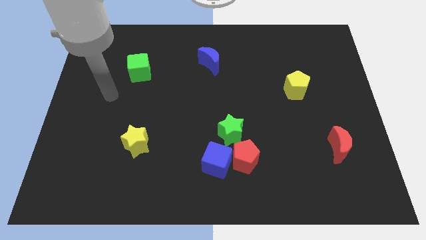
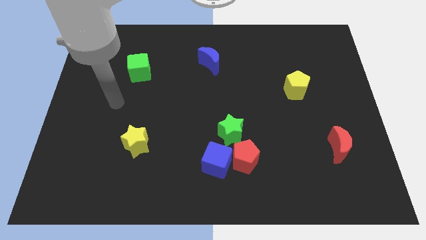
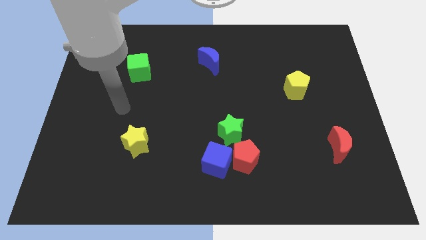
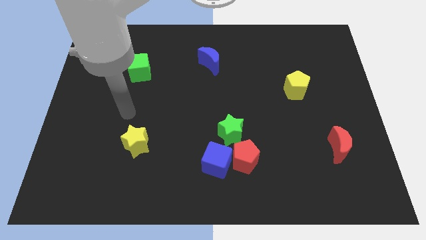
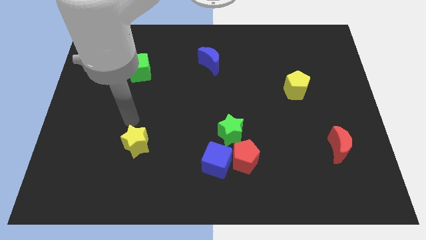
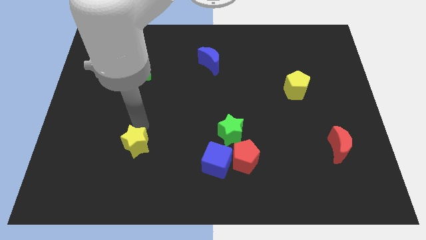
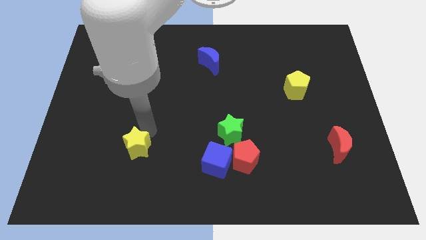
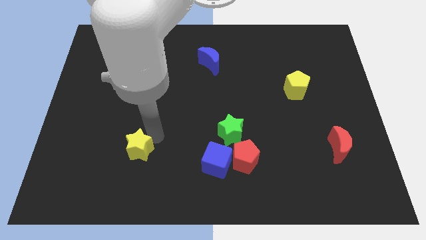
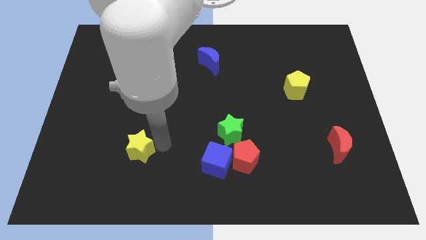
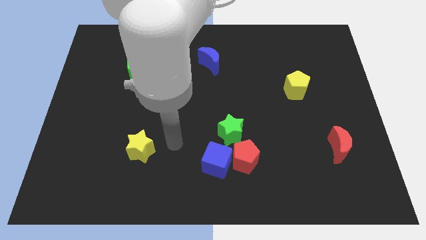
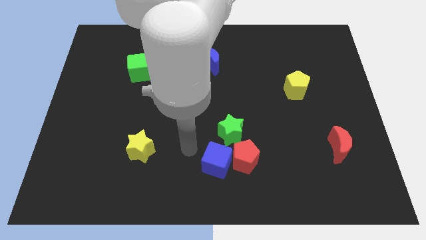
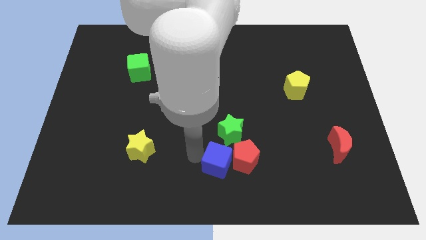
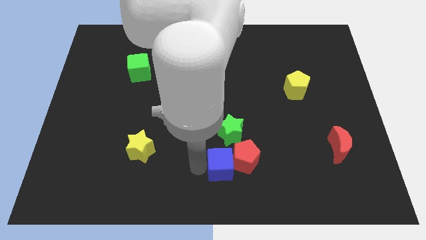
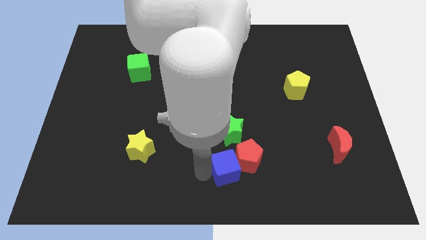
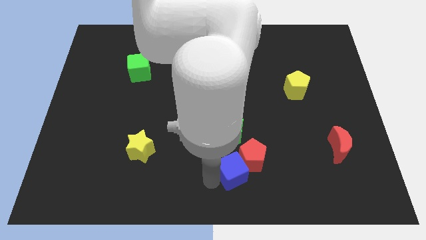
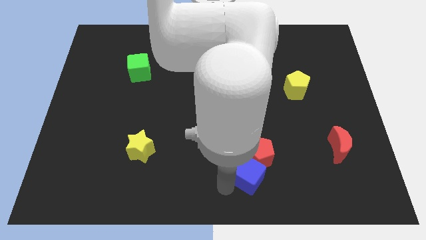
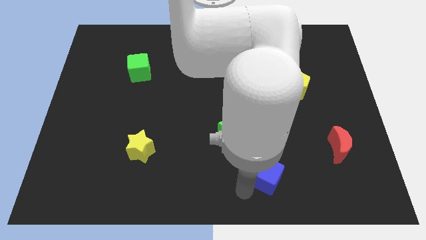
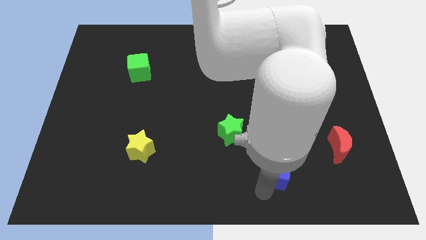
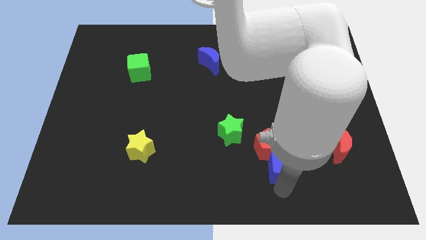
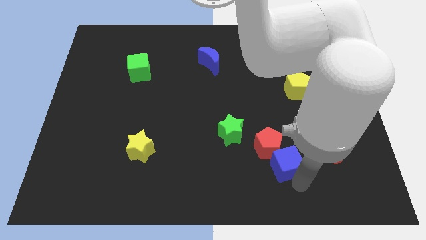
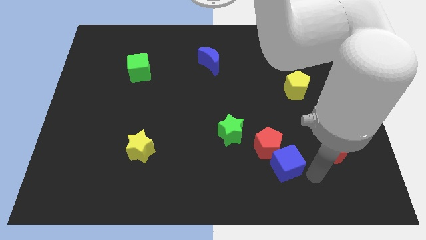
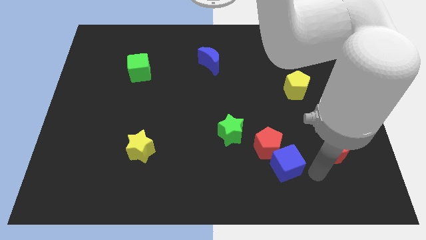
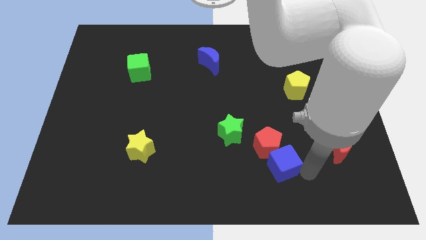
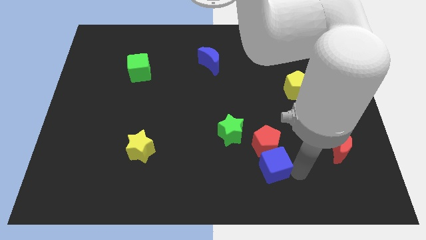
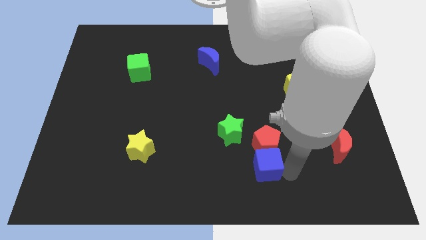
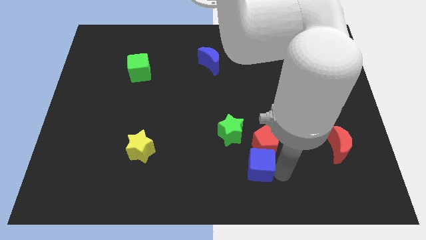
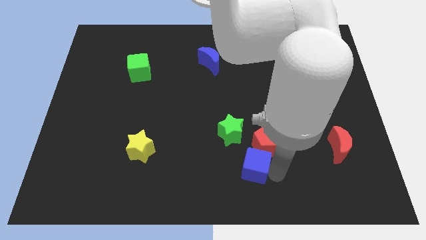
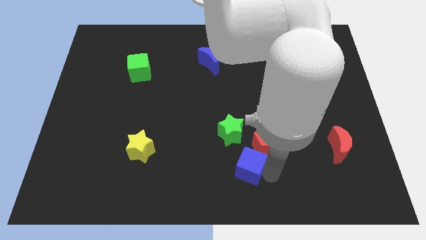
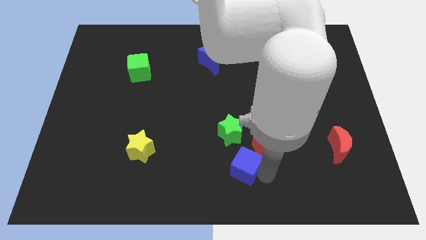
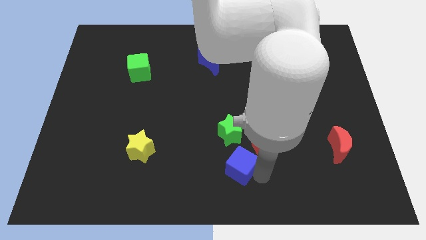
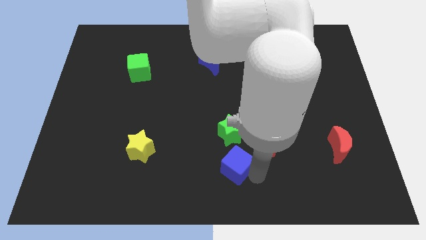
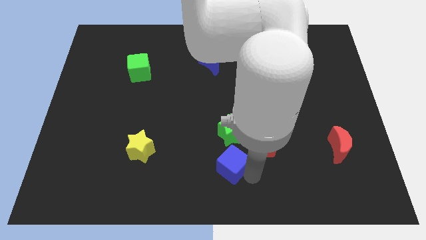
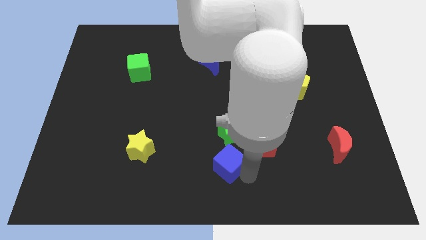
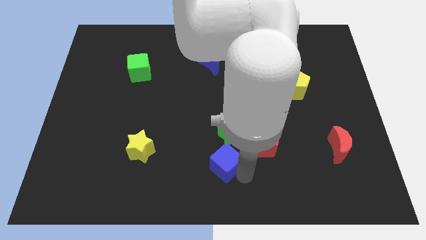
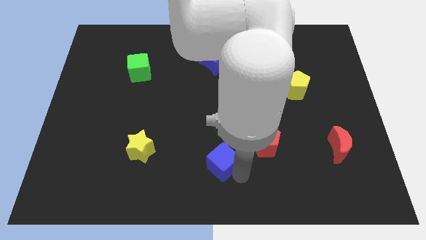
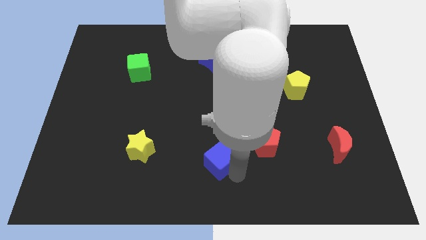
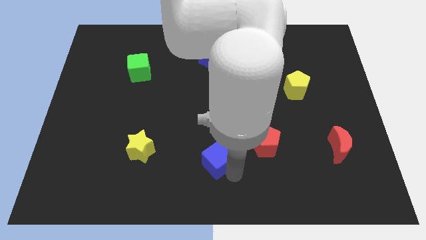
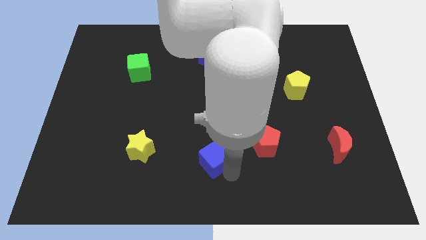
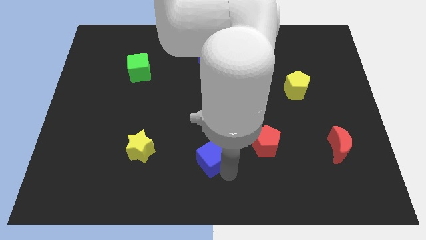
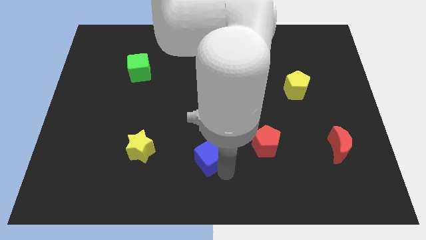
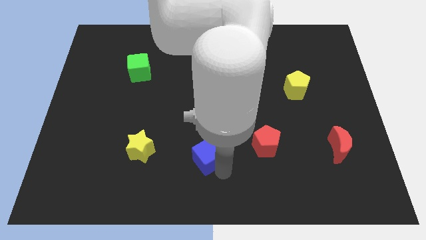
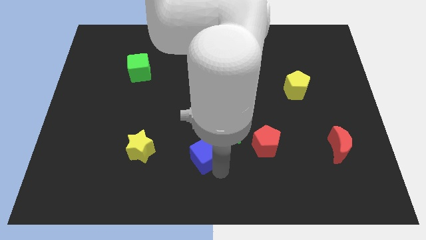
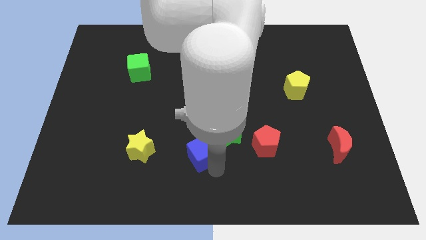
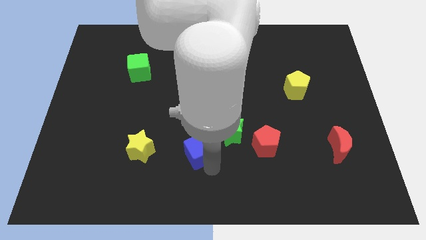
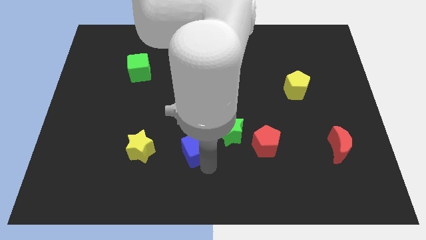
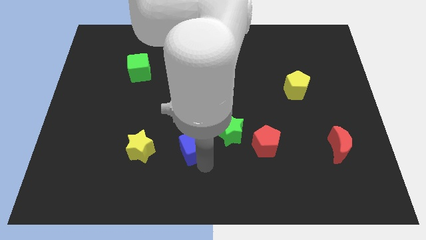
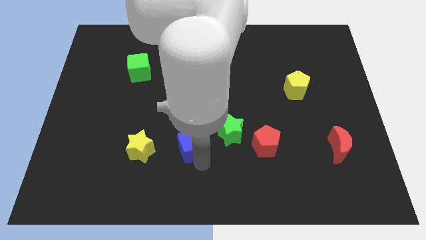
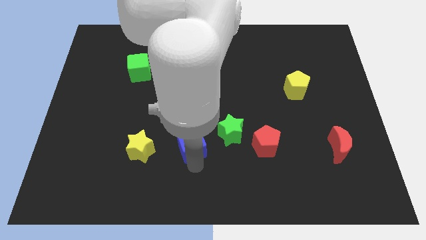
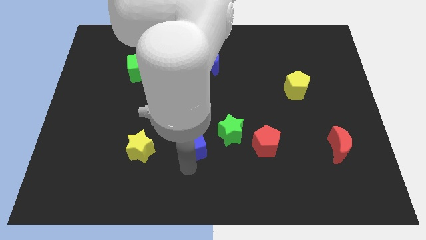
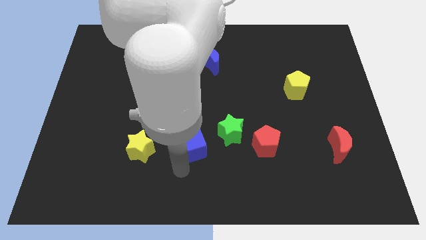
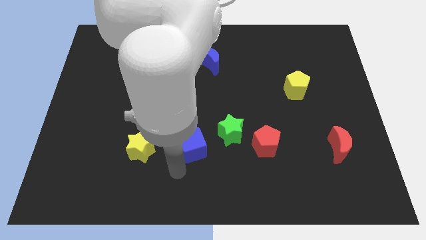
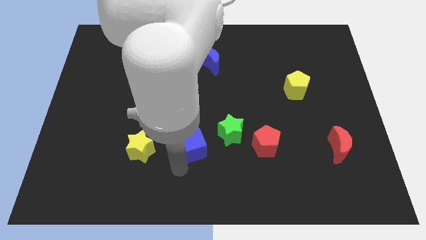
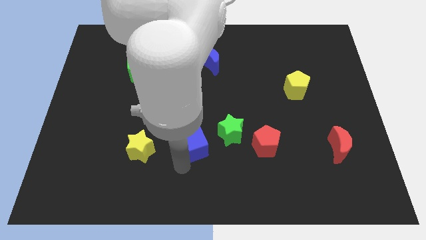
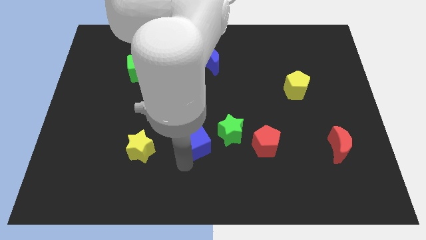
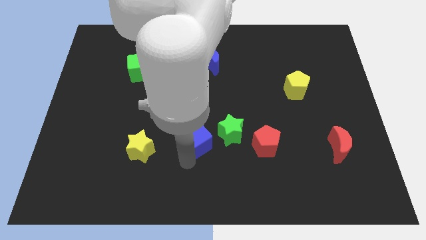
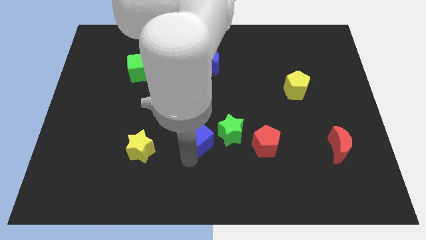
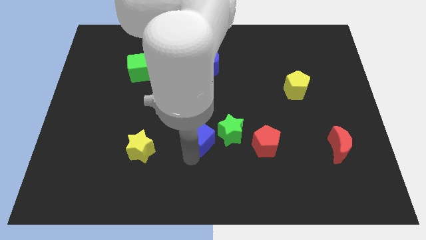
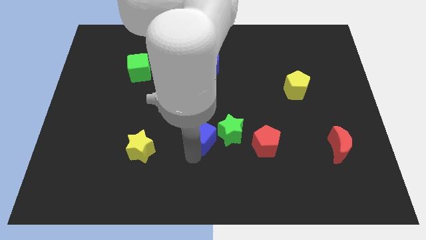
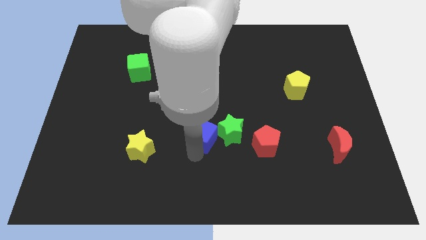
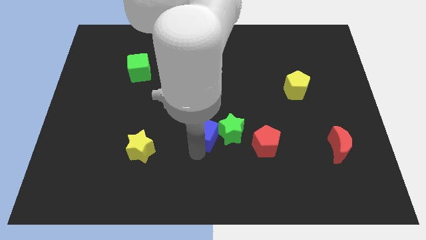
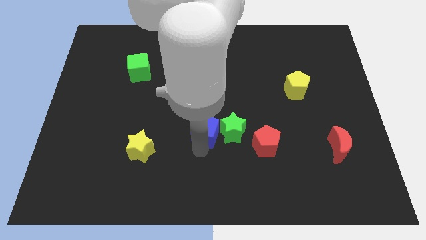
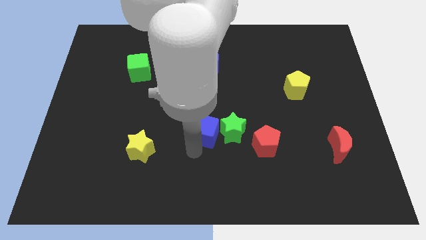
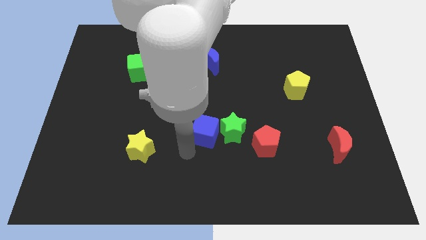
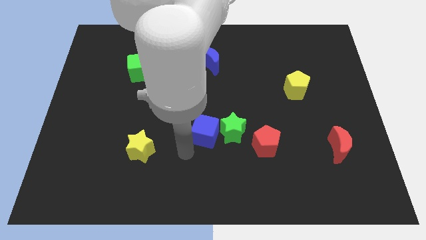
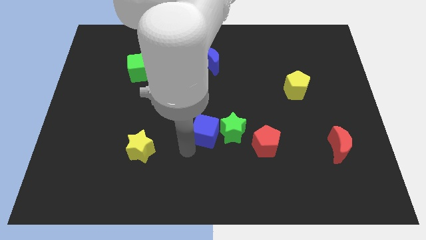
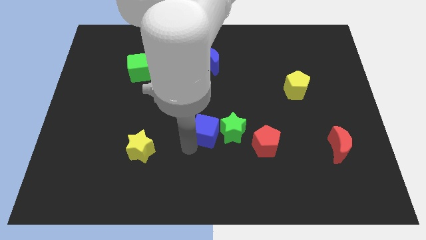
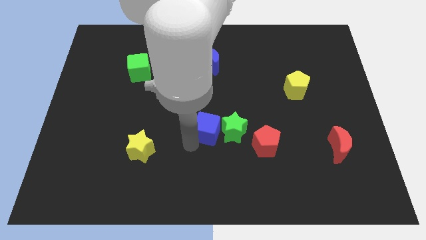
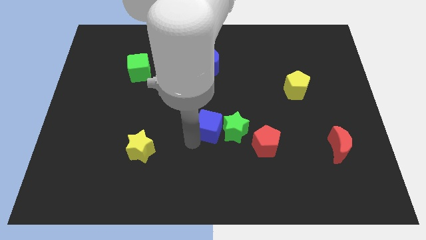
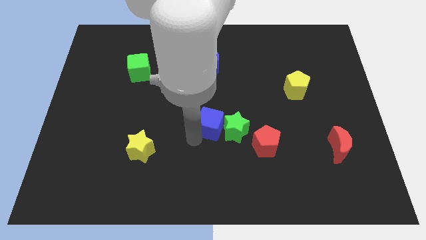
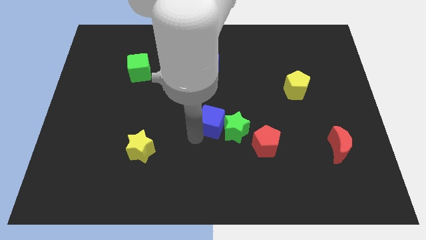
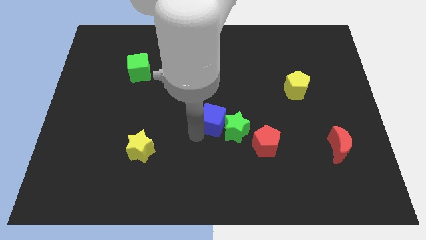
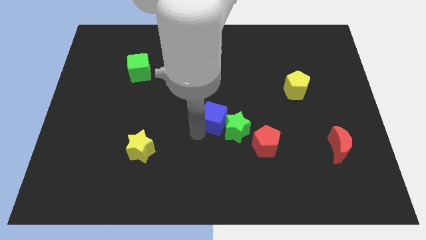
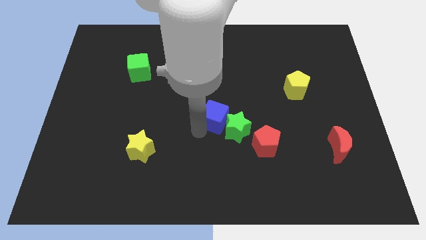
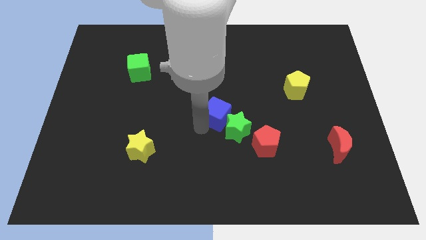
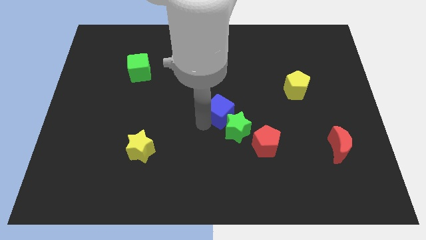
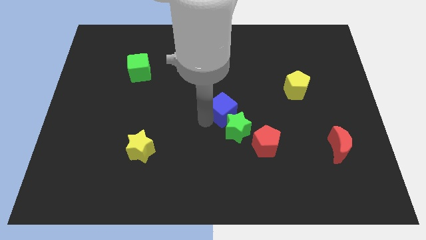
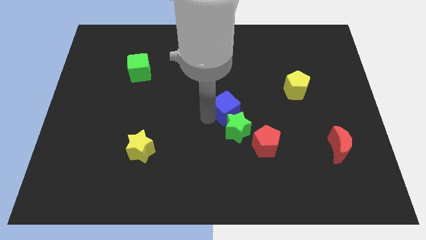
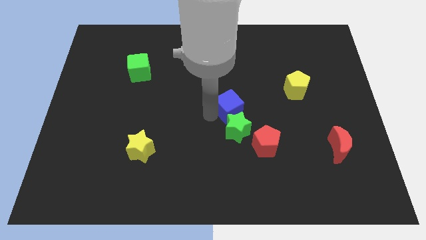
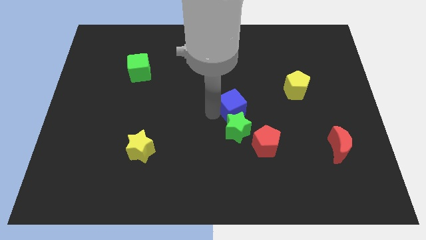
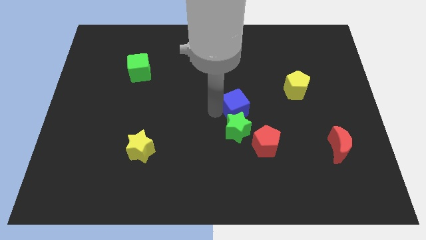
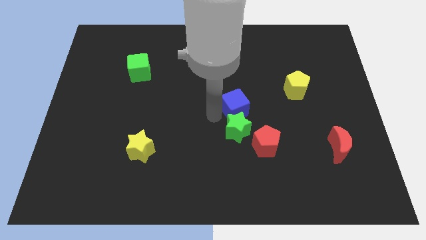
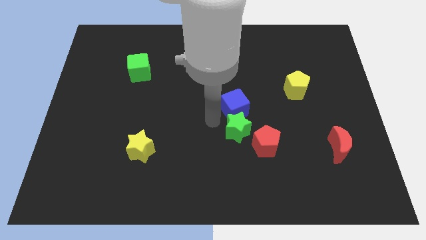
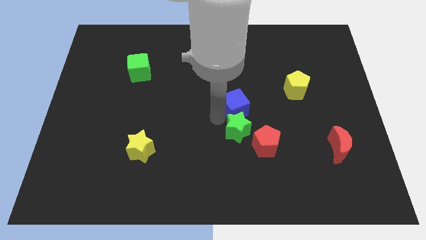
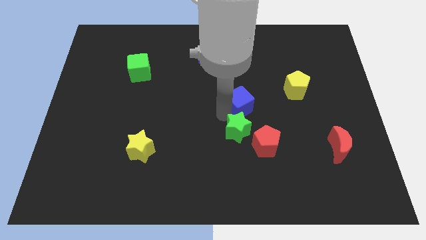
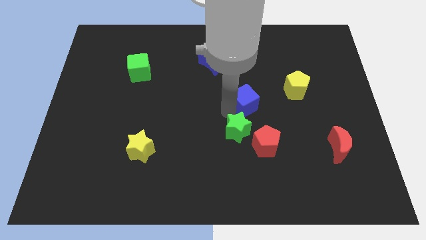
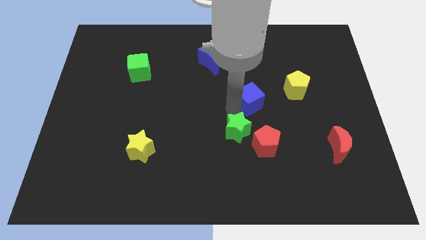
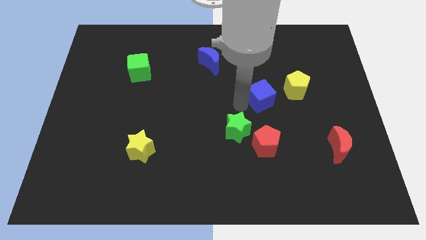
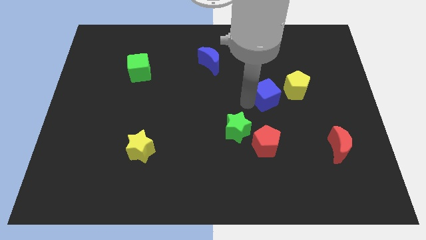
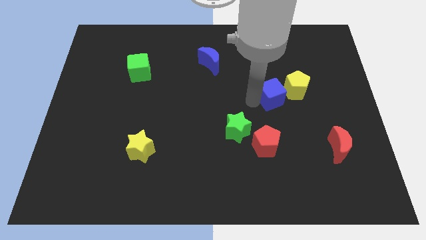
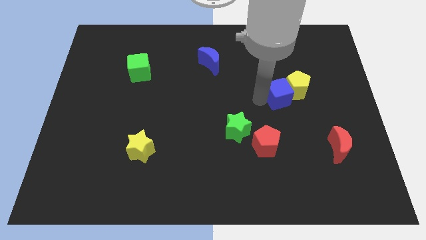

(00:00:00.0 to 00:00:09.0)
slide the blue cube next to the yellow pentagon
